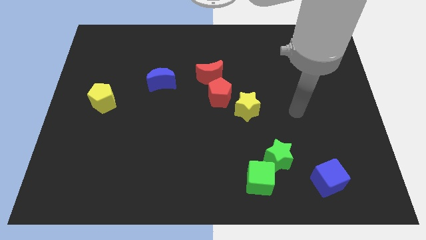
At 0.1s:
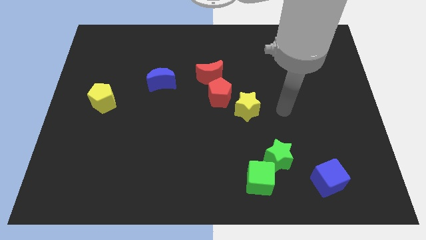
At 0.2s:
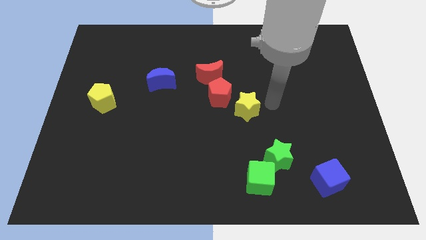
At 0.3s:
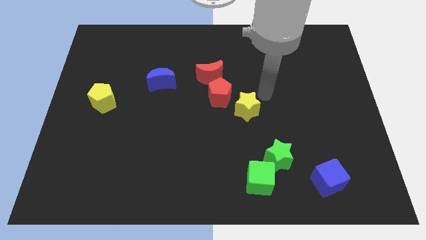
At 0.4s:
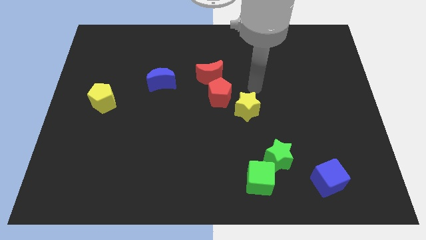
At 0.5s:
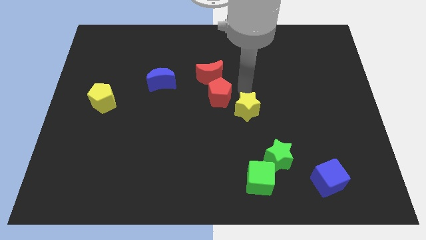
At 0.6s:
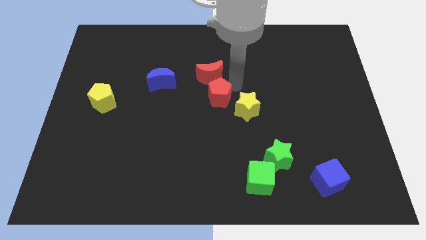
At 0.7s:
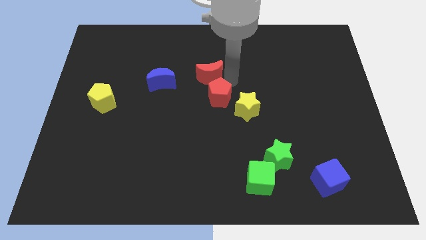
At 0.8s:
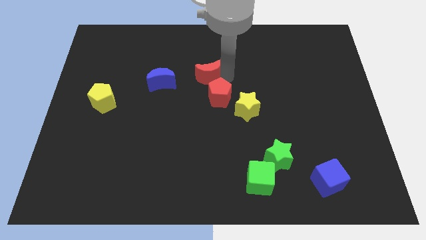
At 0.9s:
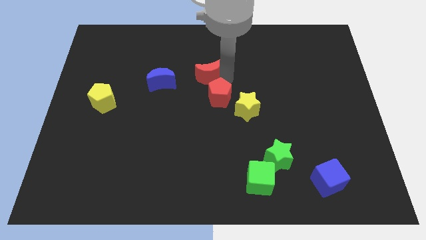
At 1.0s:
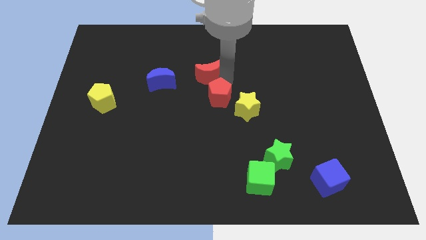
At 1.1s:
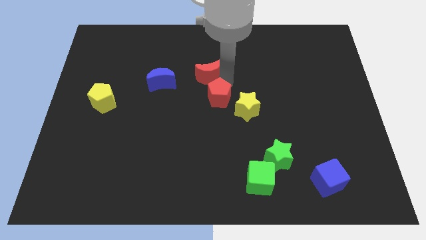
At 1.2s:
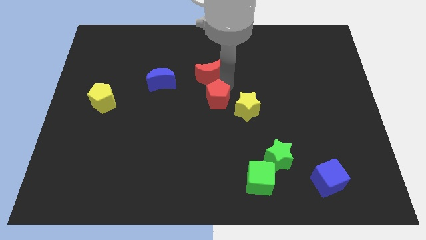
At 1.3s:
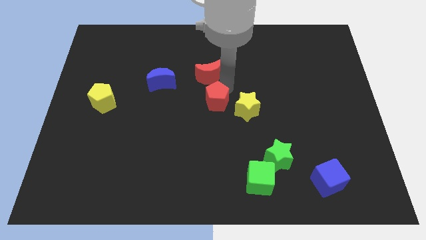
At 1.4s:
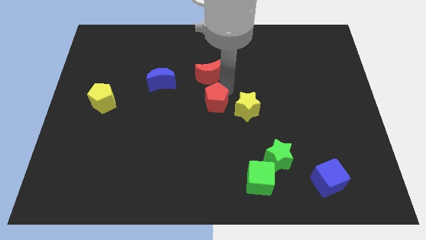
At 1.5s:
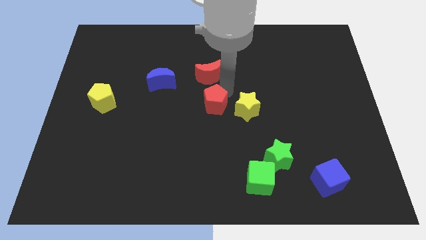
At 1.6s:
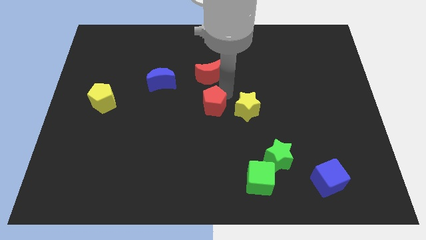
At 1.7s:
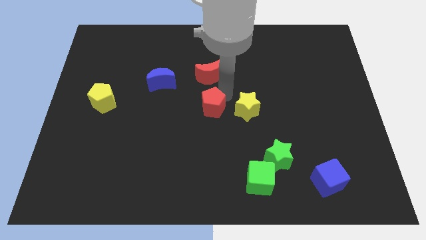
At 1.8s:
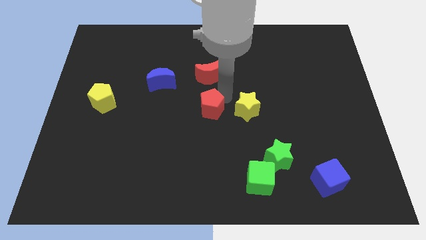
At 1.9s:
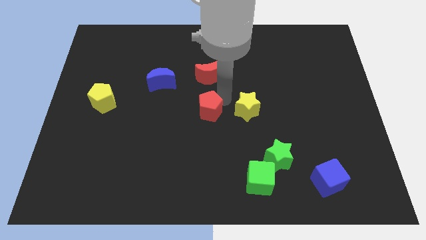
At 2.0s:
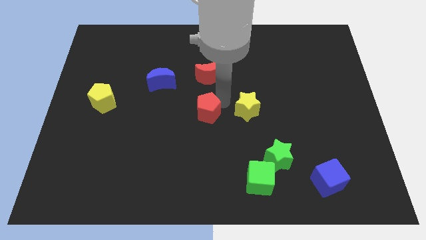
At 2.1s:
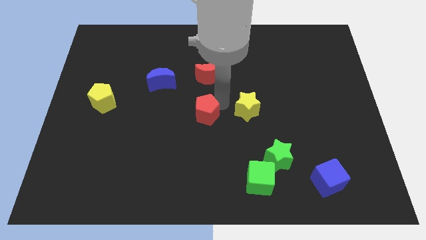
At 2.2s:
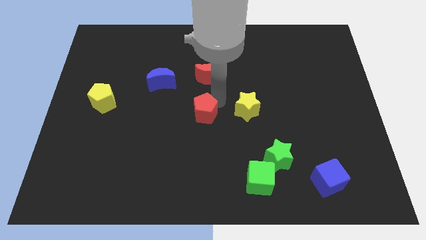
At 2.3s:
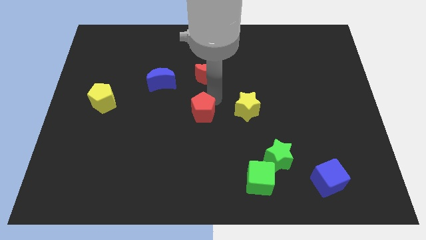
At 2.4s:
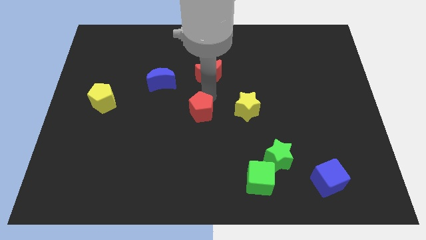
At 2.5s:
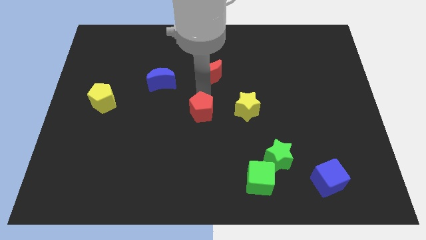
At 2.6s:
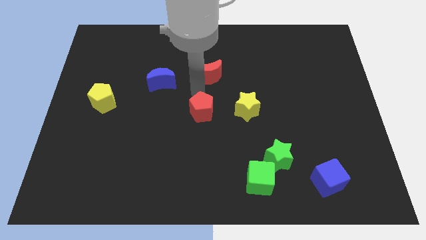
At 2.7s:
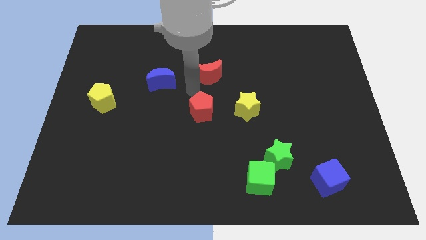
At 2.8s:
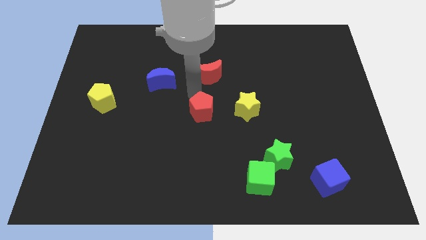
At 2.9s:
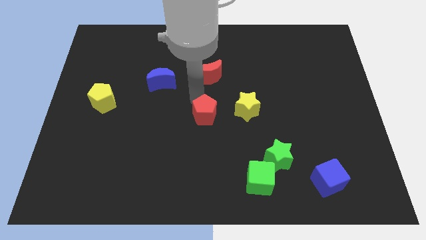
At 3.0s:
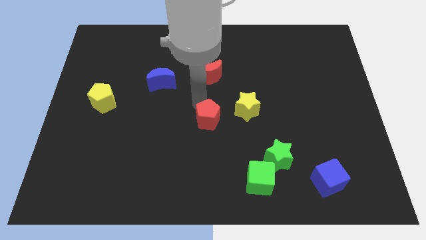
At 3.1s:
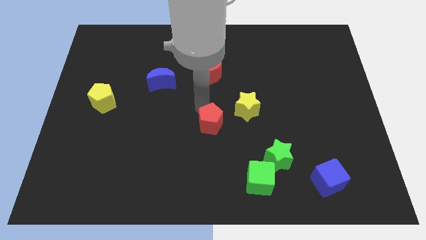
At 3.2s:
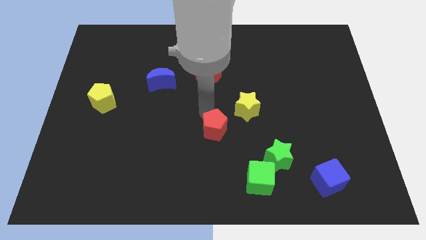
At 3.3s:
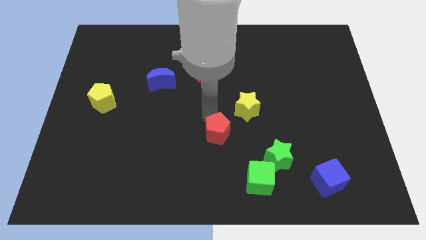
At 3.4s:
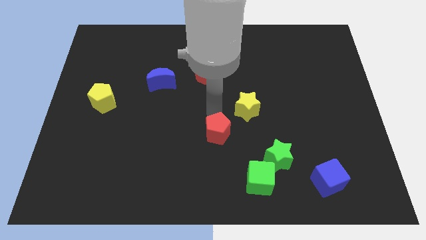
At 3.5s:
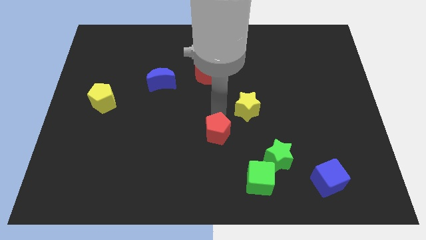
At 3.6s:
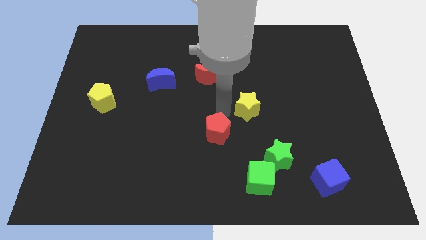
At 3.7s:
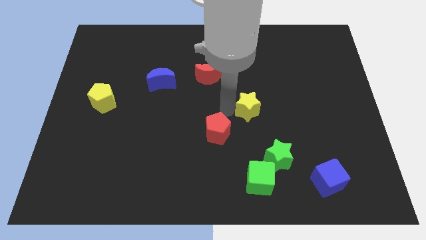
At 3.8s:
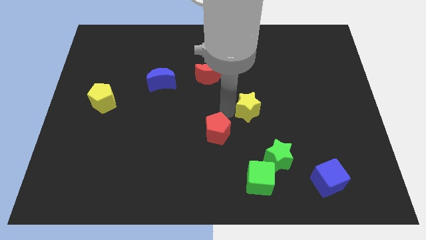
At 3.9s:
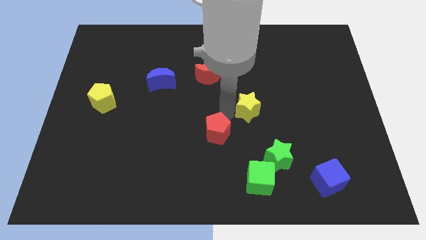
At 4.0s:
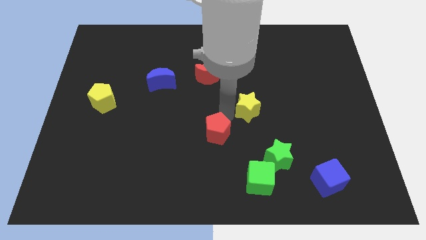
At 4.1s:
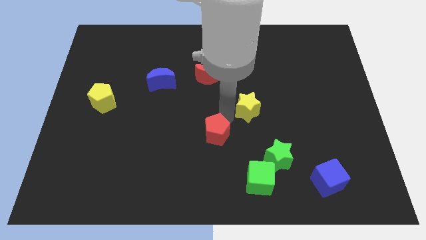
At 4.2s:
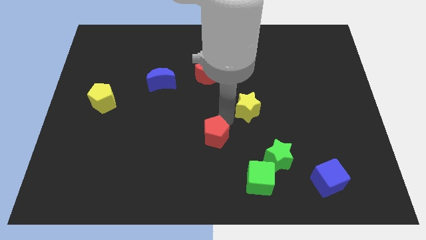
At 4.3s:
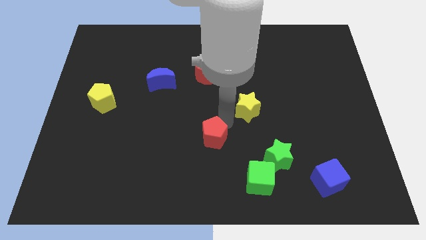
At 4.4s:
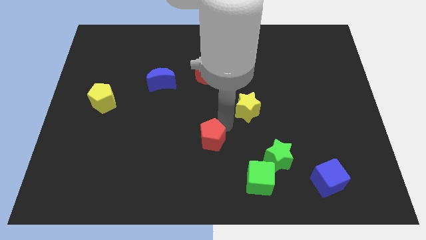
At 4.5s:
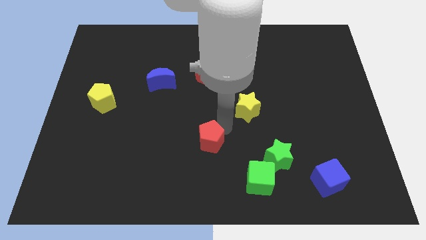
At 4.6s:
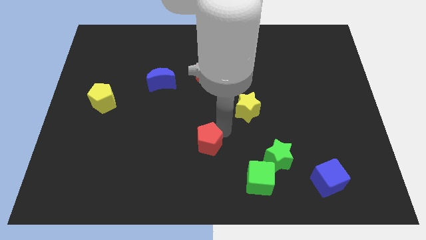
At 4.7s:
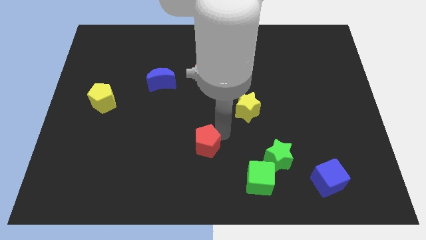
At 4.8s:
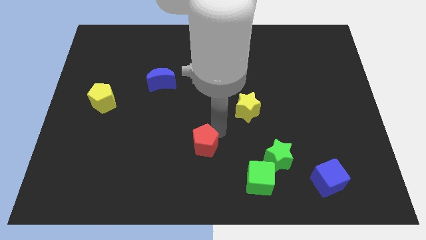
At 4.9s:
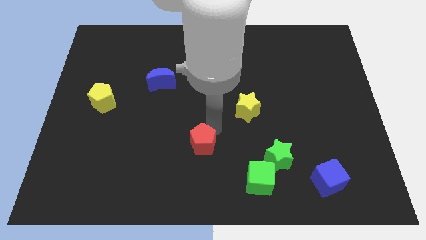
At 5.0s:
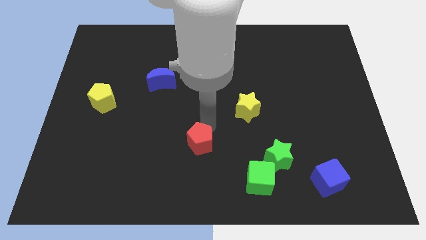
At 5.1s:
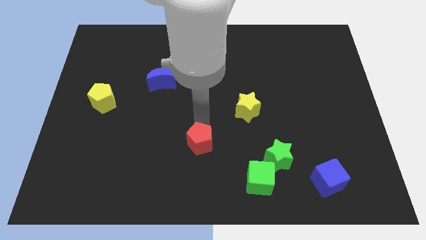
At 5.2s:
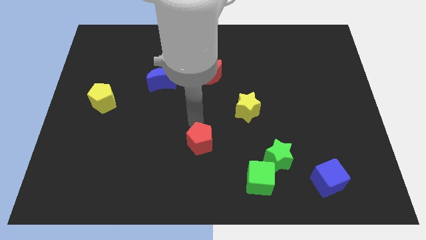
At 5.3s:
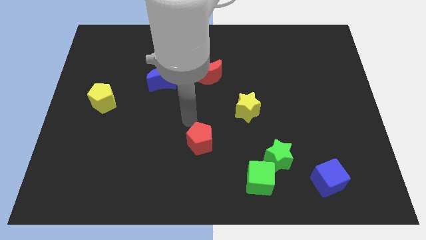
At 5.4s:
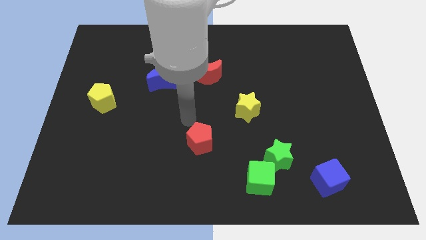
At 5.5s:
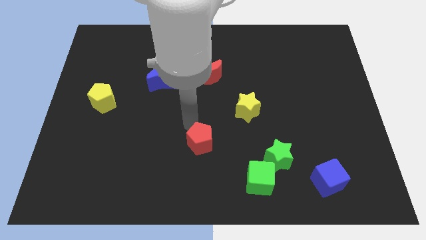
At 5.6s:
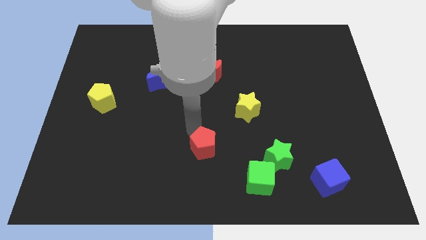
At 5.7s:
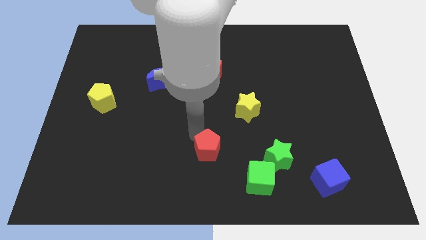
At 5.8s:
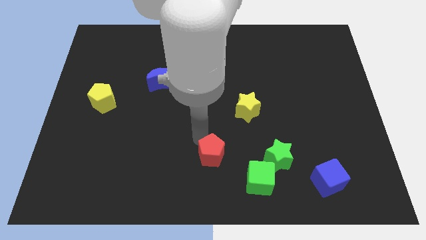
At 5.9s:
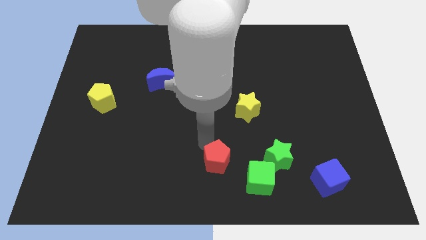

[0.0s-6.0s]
put the red pentagon to the left side of the green cube

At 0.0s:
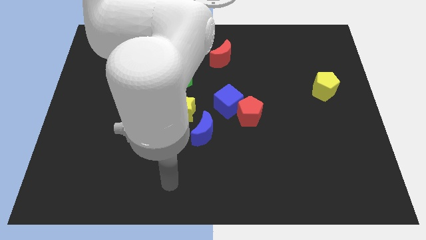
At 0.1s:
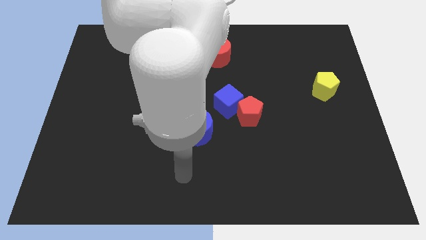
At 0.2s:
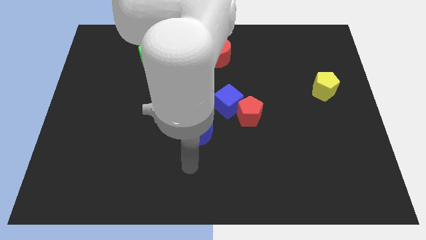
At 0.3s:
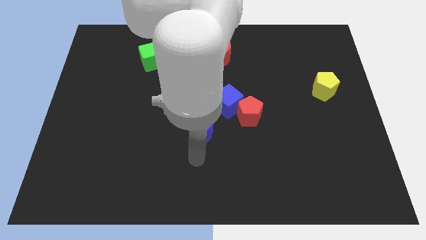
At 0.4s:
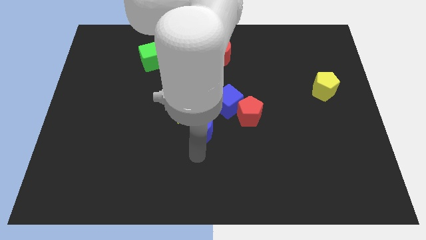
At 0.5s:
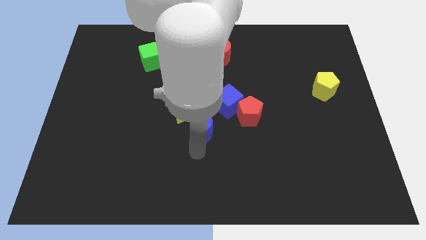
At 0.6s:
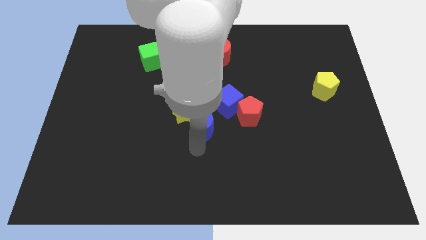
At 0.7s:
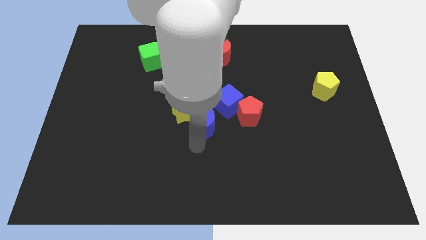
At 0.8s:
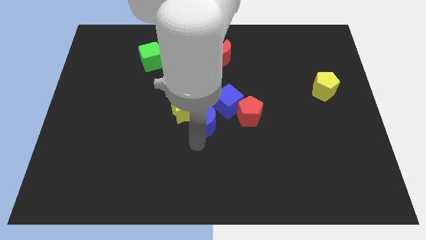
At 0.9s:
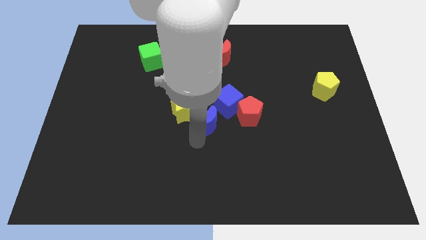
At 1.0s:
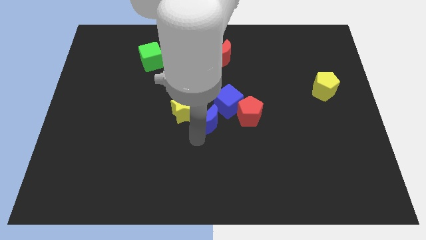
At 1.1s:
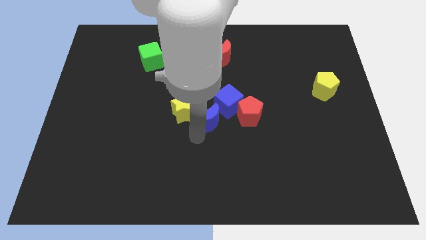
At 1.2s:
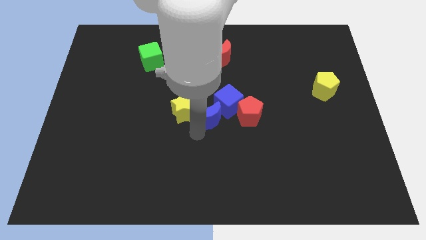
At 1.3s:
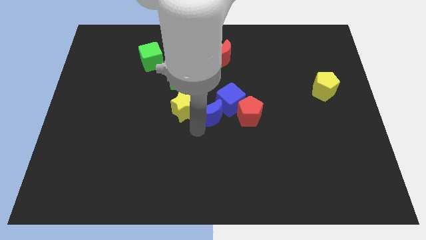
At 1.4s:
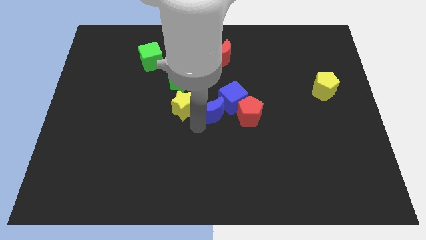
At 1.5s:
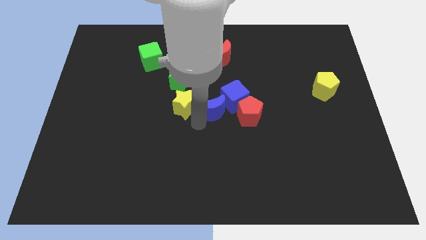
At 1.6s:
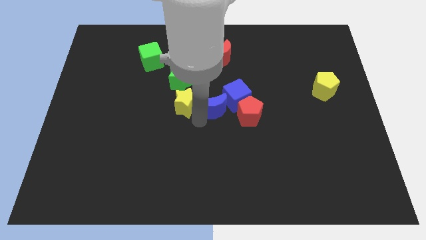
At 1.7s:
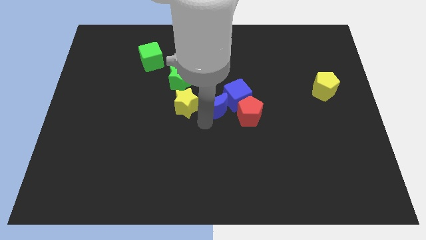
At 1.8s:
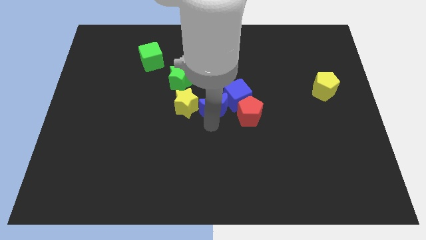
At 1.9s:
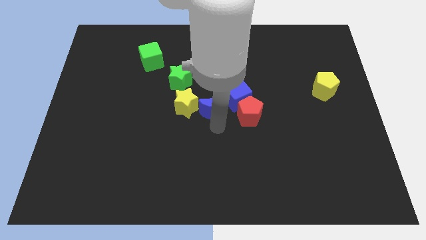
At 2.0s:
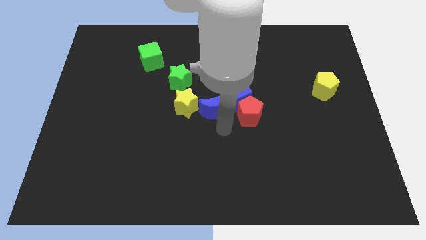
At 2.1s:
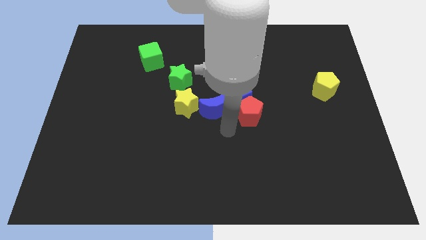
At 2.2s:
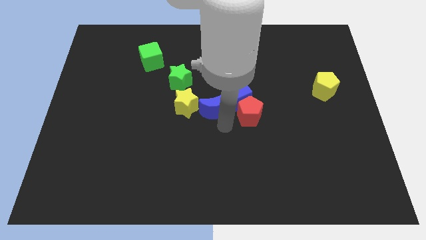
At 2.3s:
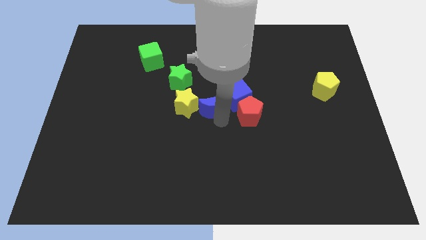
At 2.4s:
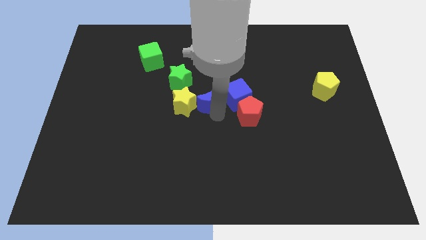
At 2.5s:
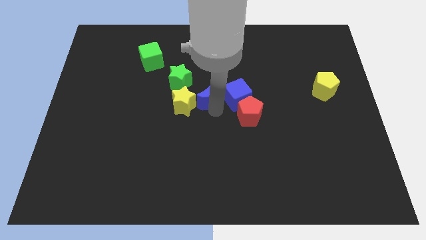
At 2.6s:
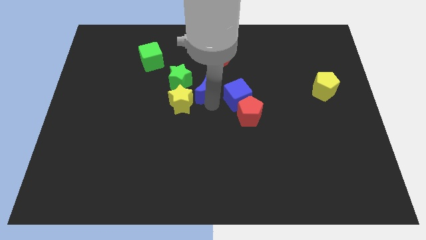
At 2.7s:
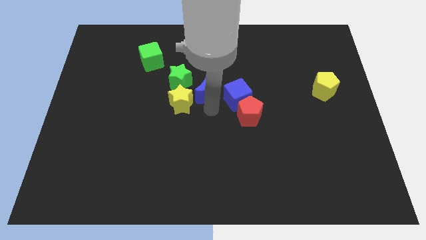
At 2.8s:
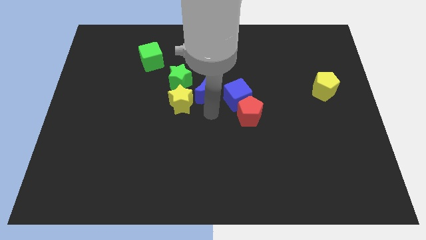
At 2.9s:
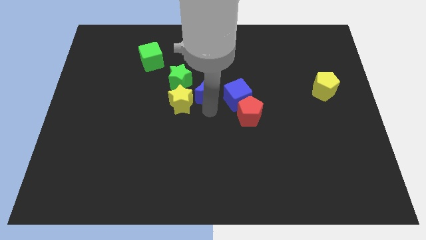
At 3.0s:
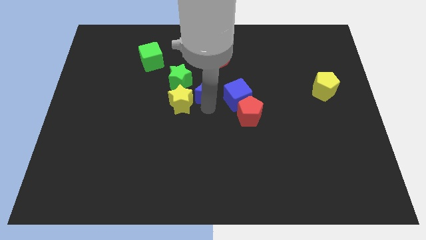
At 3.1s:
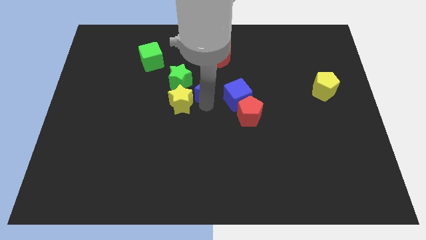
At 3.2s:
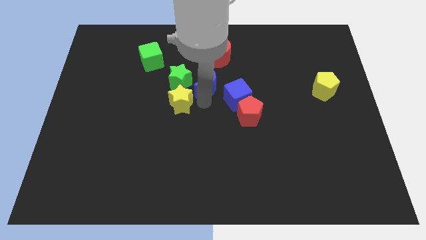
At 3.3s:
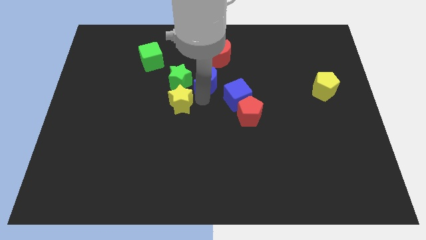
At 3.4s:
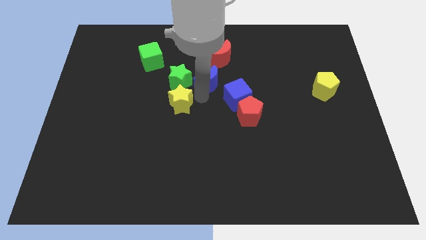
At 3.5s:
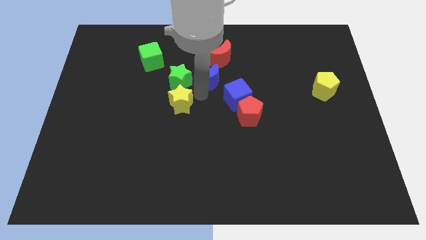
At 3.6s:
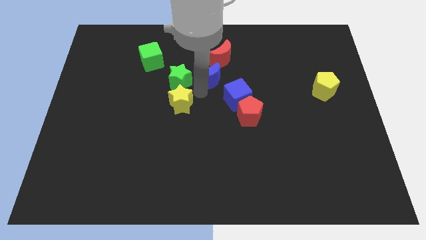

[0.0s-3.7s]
put the blue moon to the top right side of the green star
